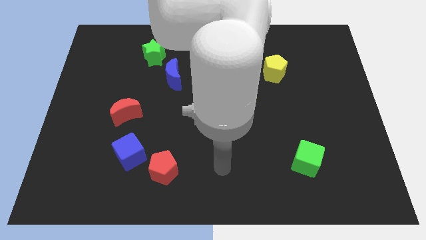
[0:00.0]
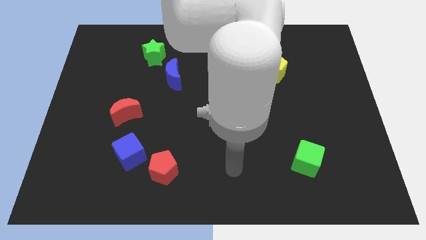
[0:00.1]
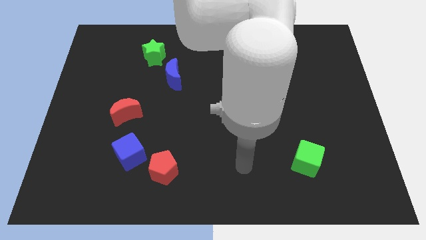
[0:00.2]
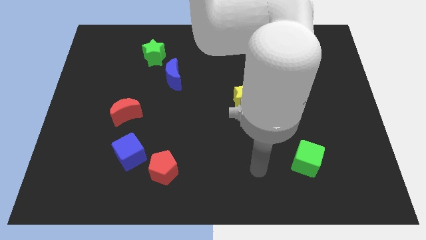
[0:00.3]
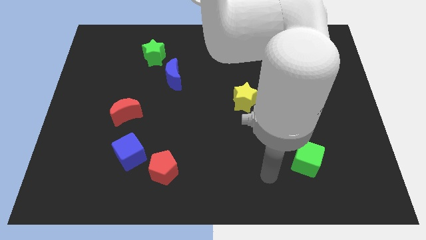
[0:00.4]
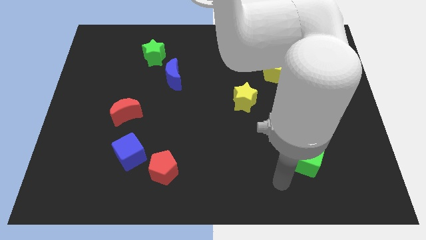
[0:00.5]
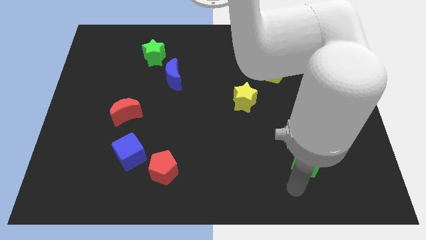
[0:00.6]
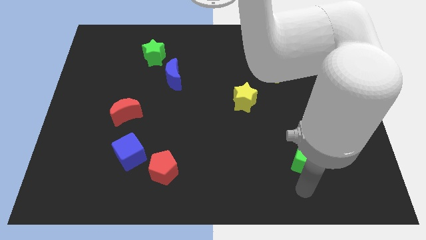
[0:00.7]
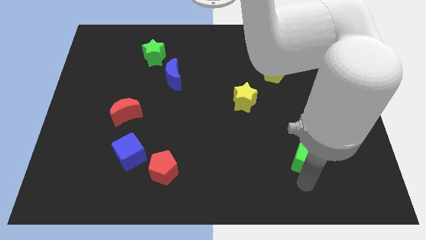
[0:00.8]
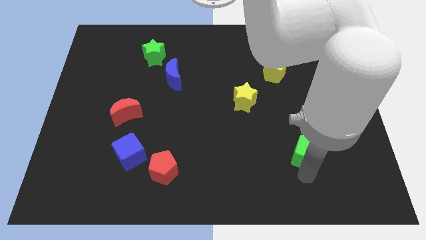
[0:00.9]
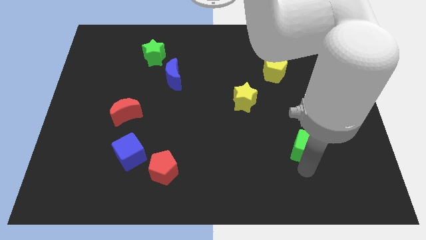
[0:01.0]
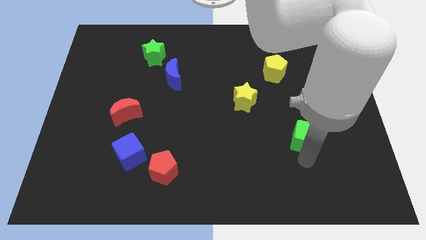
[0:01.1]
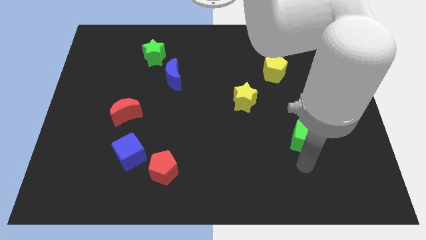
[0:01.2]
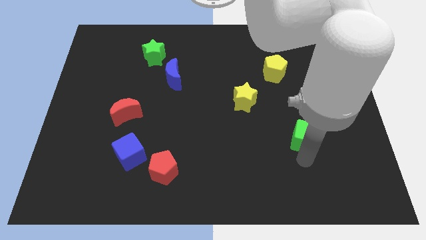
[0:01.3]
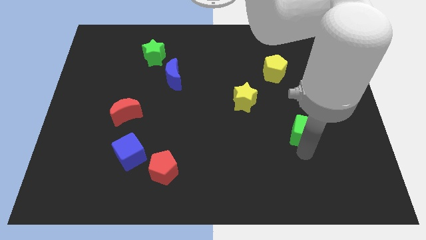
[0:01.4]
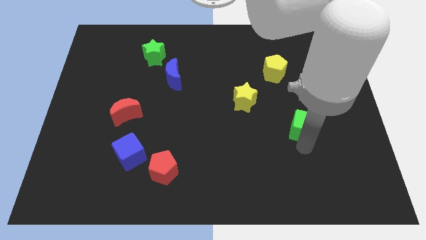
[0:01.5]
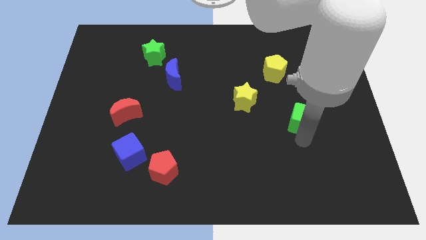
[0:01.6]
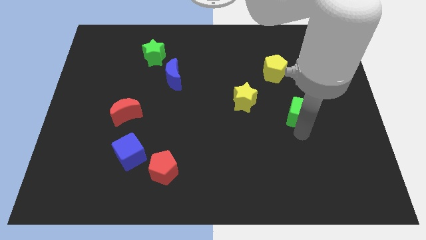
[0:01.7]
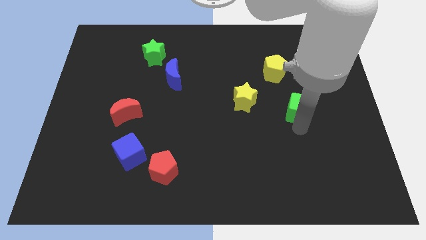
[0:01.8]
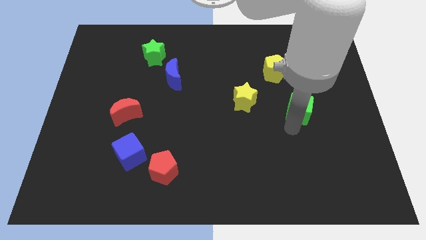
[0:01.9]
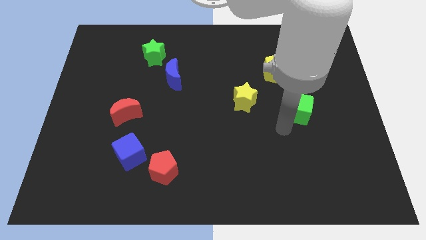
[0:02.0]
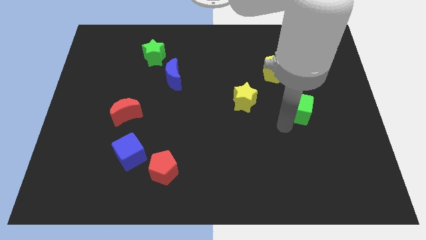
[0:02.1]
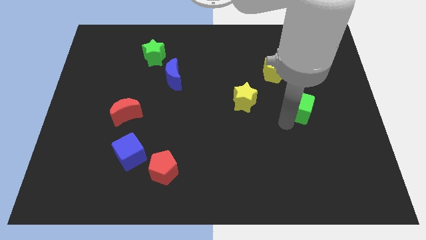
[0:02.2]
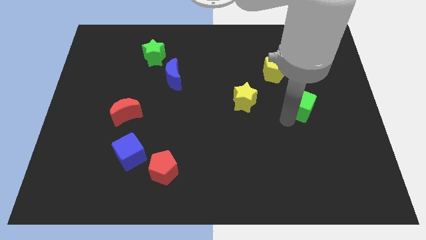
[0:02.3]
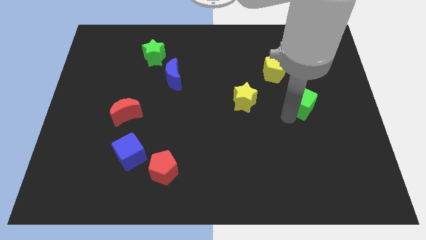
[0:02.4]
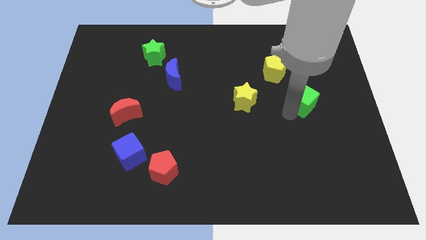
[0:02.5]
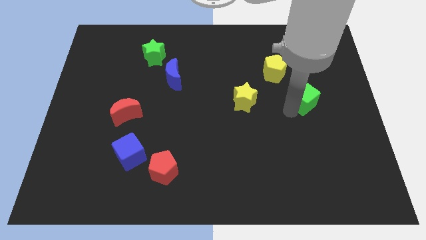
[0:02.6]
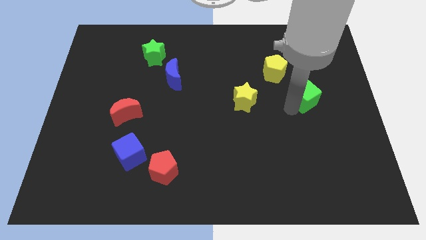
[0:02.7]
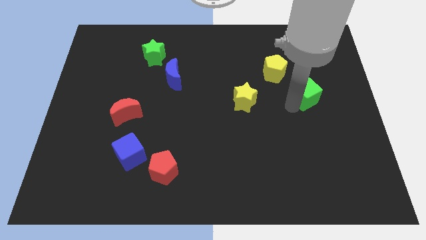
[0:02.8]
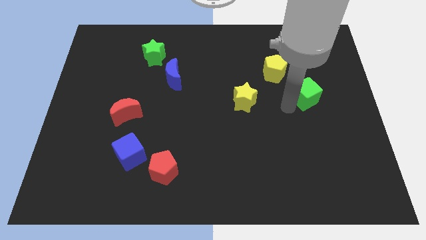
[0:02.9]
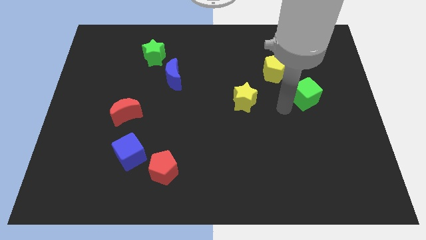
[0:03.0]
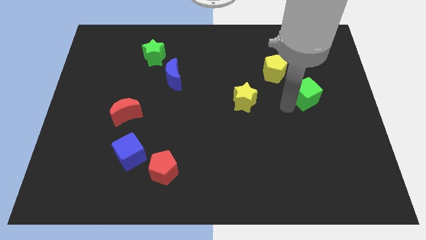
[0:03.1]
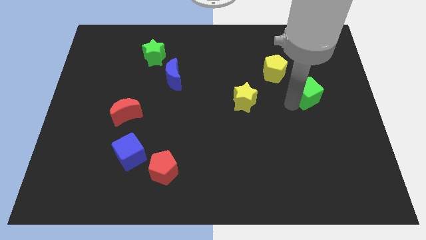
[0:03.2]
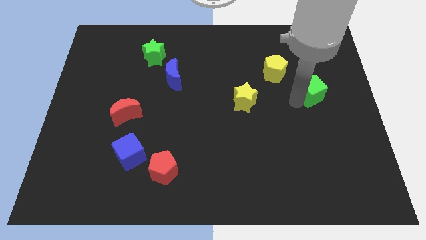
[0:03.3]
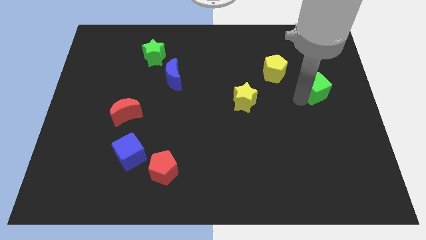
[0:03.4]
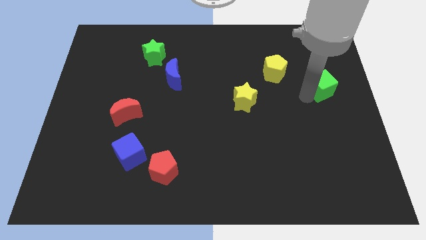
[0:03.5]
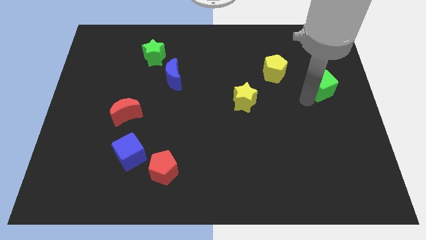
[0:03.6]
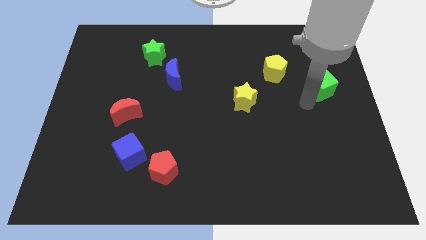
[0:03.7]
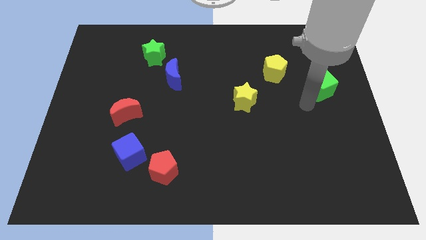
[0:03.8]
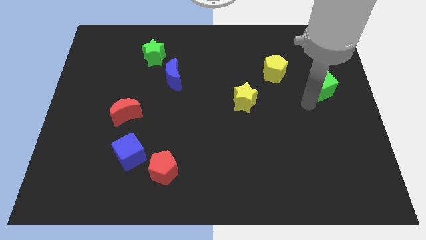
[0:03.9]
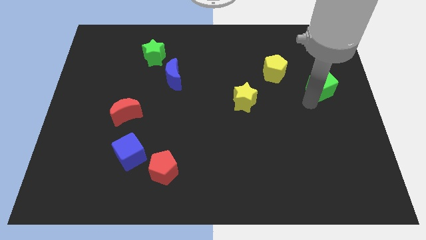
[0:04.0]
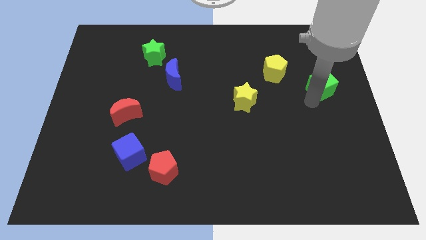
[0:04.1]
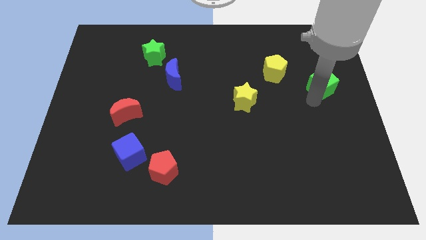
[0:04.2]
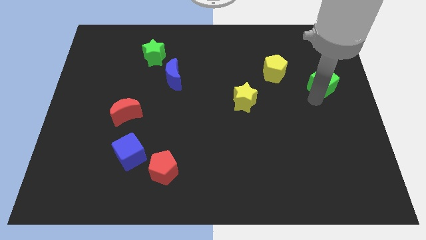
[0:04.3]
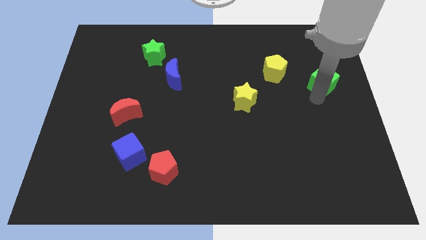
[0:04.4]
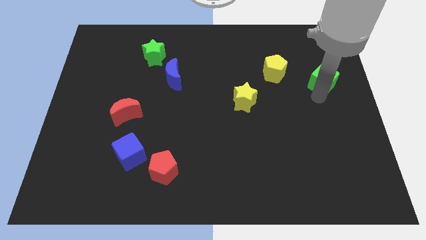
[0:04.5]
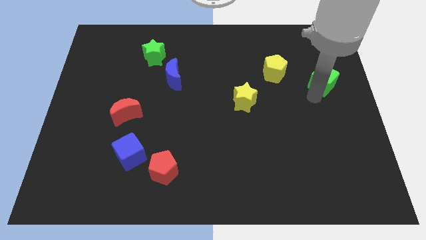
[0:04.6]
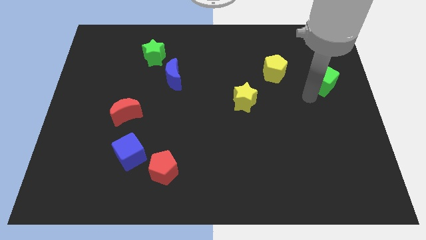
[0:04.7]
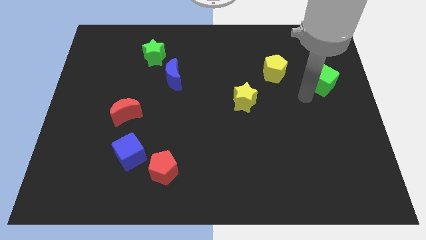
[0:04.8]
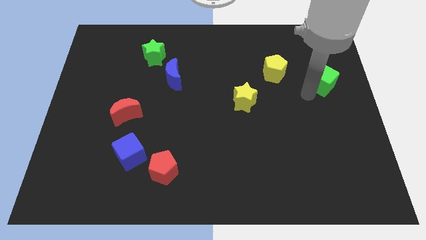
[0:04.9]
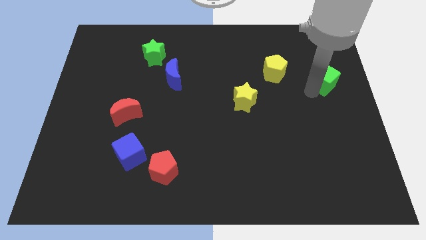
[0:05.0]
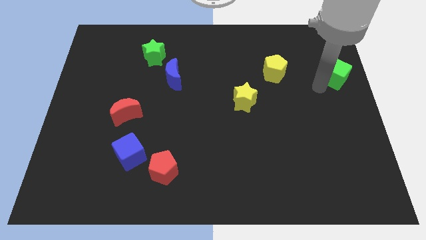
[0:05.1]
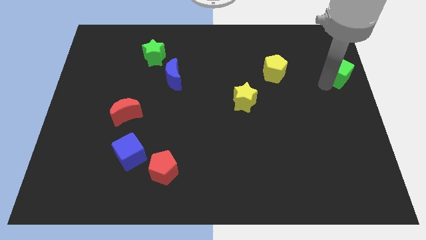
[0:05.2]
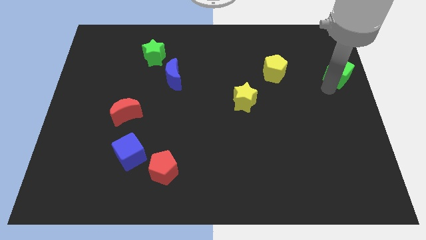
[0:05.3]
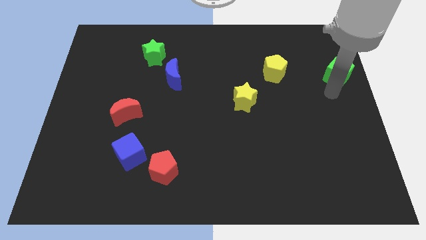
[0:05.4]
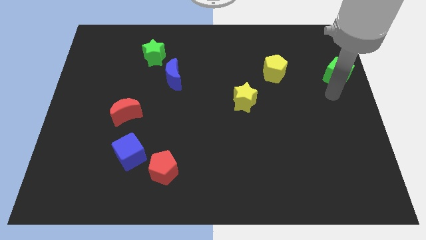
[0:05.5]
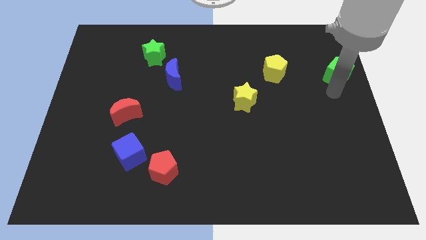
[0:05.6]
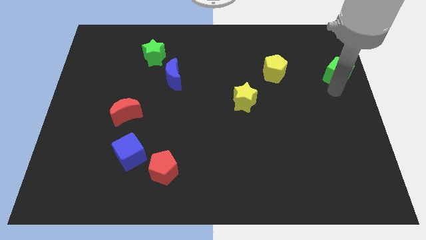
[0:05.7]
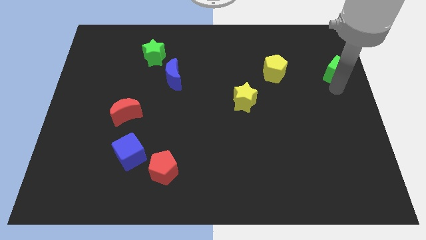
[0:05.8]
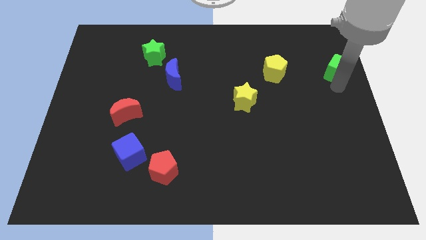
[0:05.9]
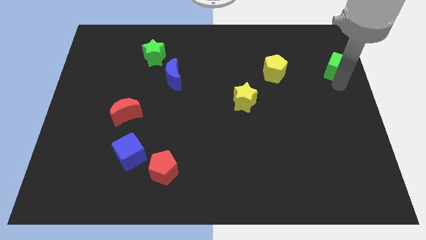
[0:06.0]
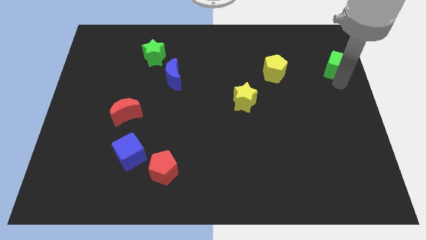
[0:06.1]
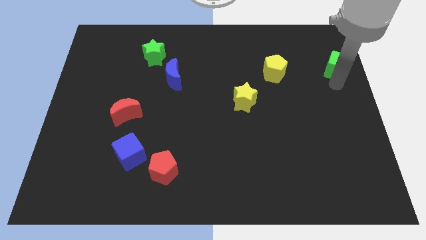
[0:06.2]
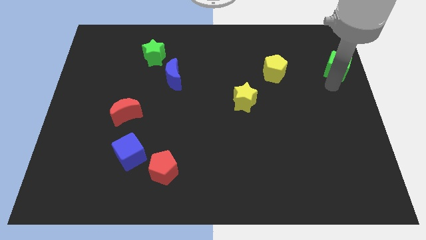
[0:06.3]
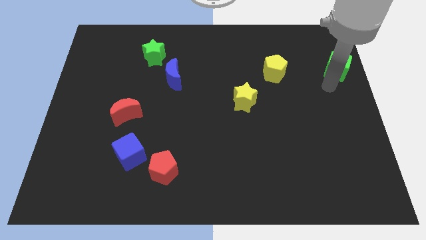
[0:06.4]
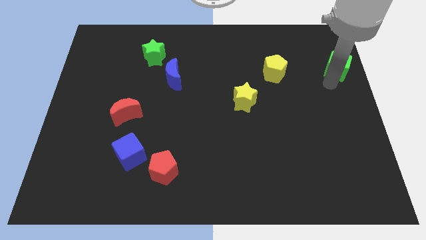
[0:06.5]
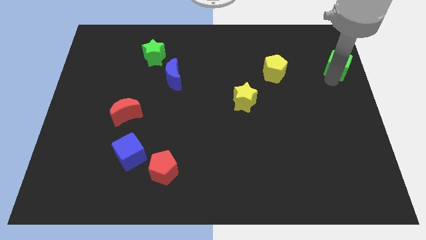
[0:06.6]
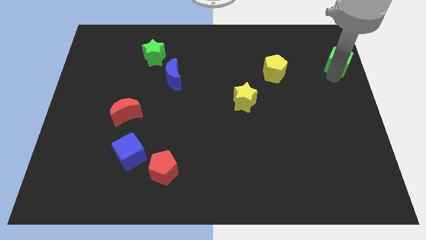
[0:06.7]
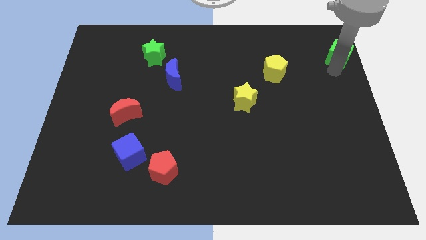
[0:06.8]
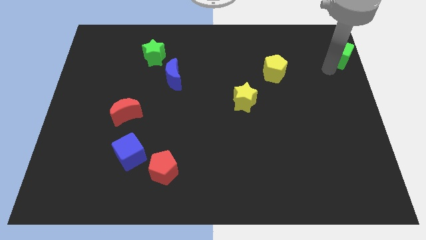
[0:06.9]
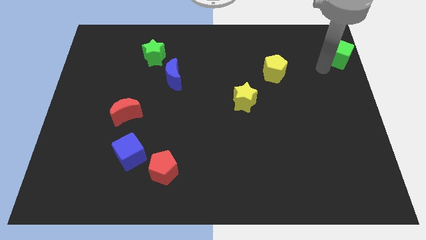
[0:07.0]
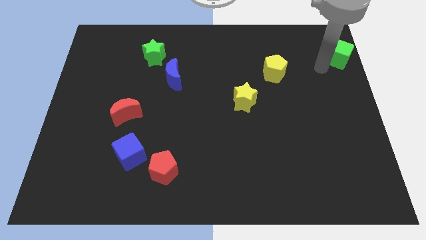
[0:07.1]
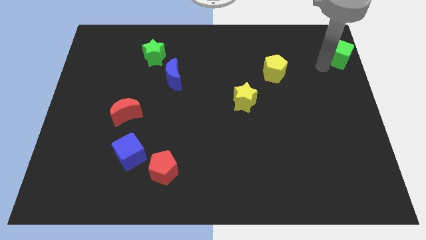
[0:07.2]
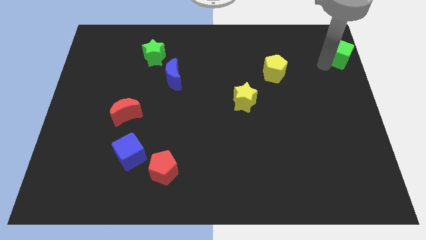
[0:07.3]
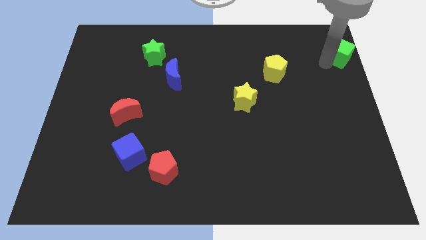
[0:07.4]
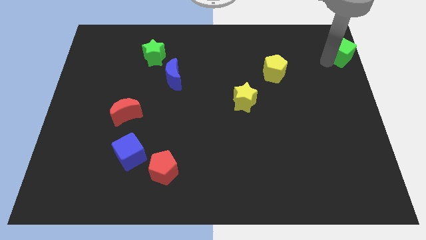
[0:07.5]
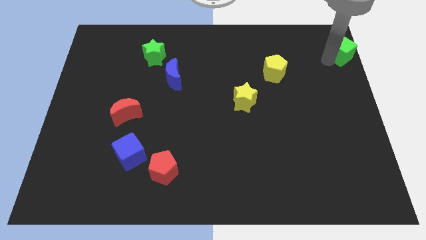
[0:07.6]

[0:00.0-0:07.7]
push the green cube to the top right
